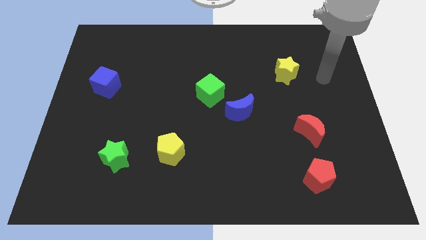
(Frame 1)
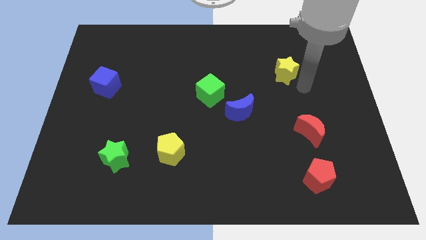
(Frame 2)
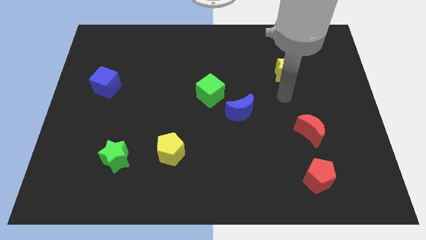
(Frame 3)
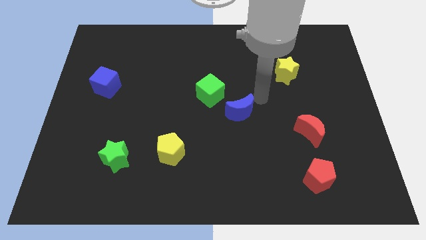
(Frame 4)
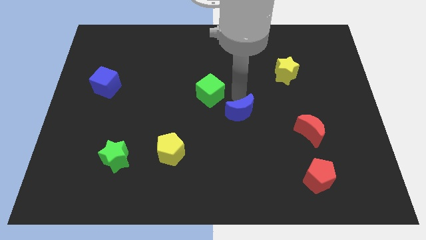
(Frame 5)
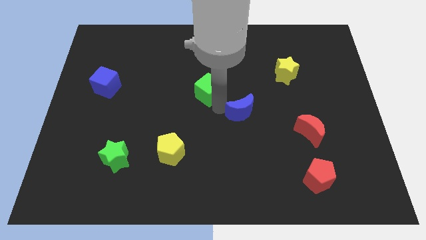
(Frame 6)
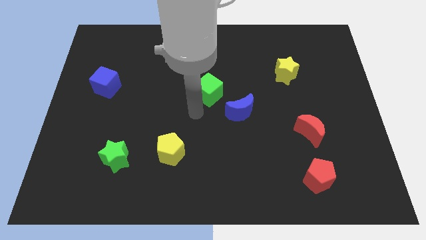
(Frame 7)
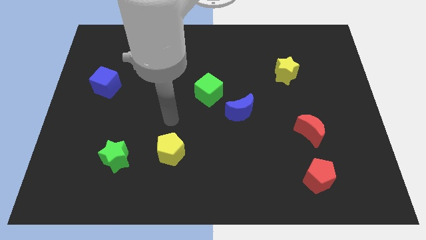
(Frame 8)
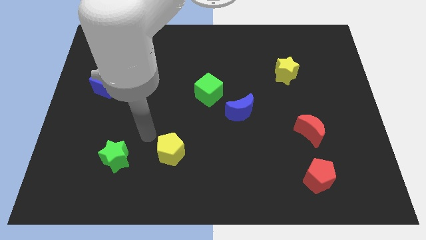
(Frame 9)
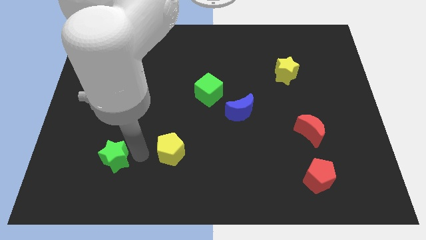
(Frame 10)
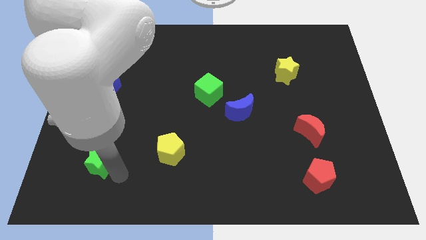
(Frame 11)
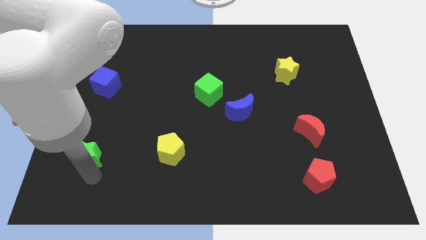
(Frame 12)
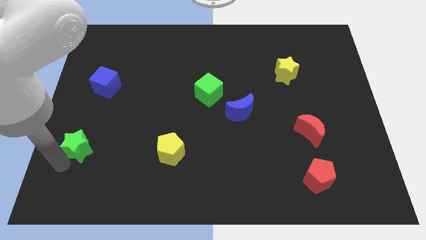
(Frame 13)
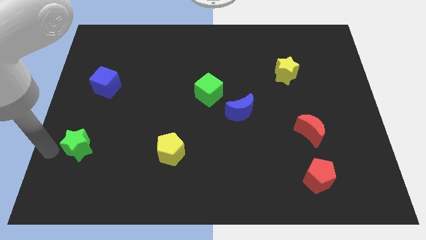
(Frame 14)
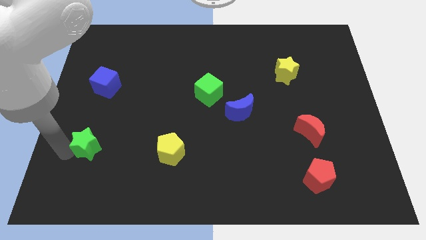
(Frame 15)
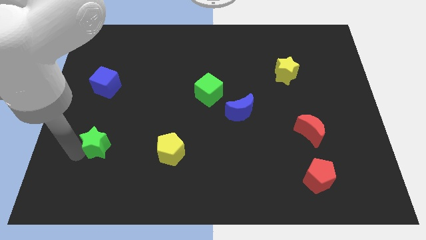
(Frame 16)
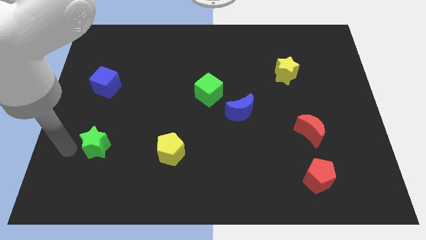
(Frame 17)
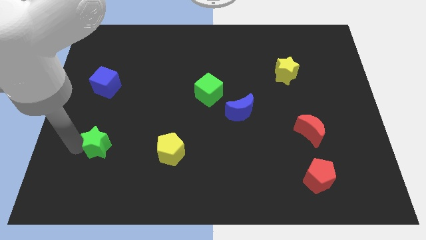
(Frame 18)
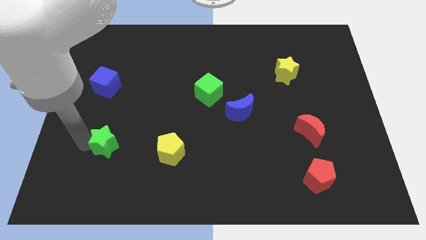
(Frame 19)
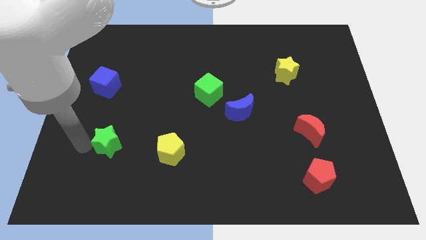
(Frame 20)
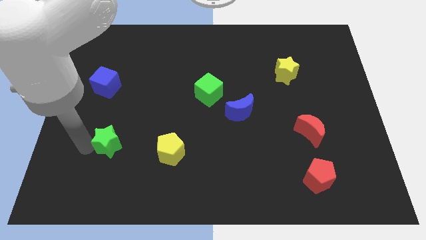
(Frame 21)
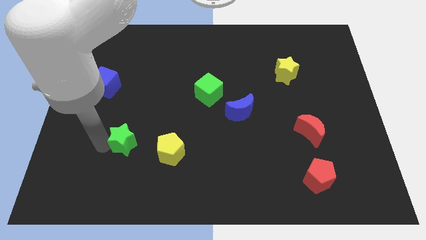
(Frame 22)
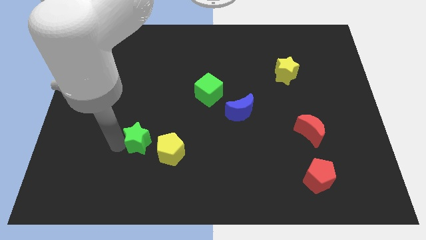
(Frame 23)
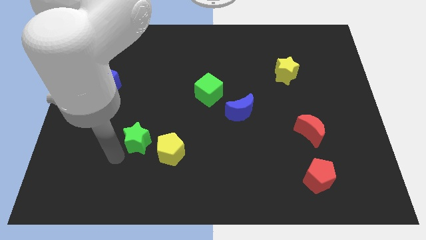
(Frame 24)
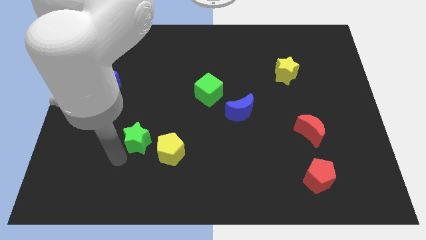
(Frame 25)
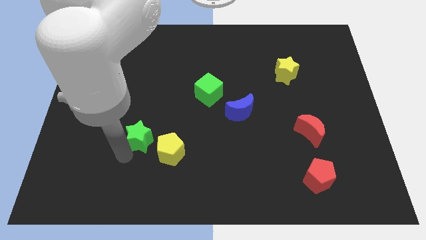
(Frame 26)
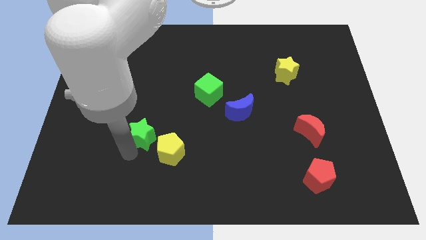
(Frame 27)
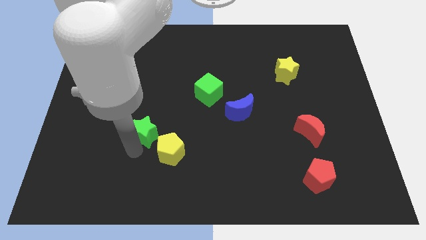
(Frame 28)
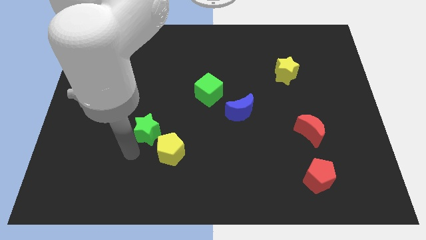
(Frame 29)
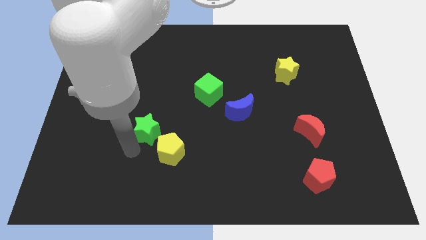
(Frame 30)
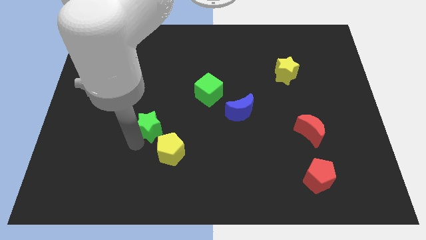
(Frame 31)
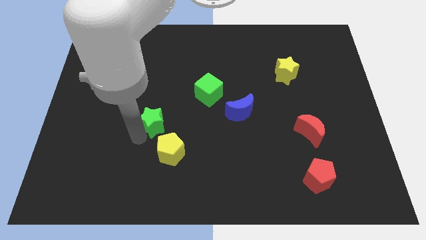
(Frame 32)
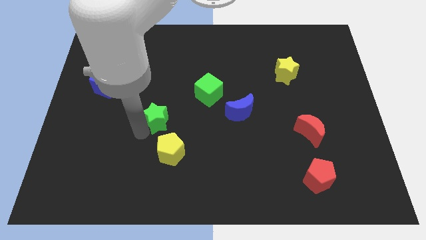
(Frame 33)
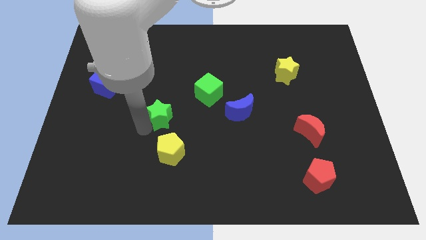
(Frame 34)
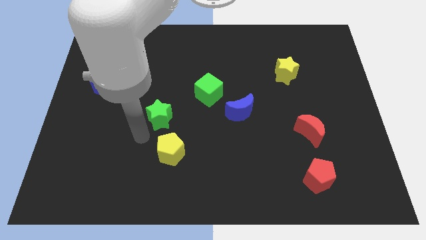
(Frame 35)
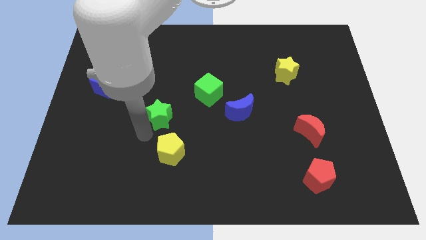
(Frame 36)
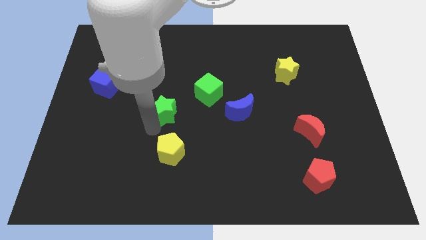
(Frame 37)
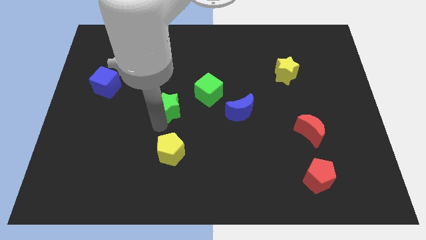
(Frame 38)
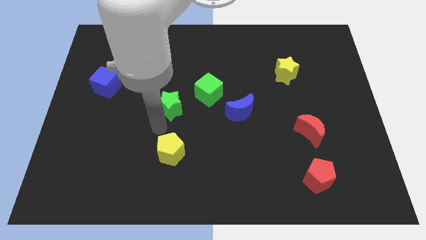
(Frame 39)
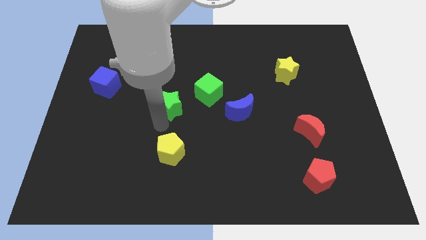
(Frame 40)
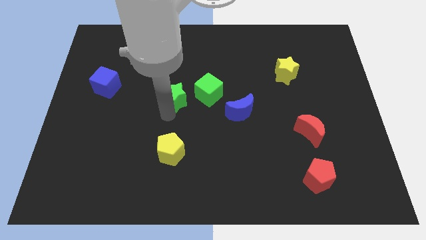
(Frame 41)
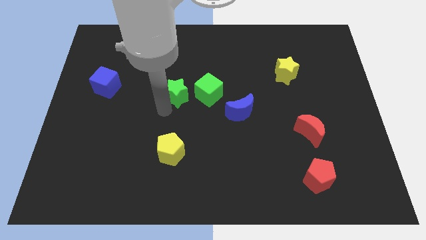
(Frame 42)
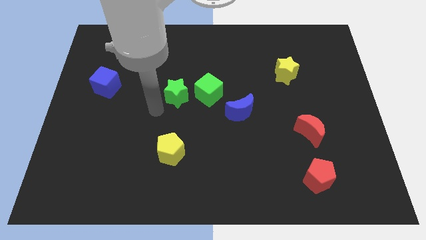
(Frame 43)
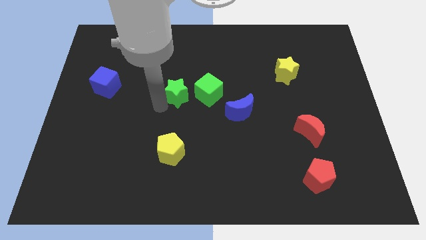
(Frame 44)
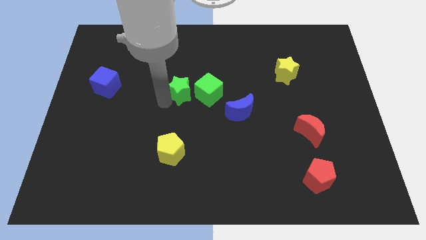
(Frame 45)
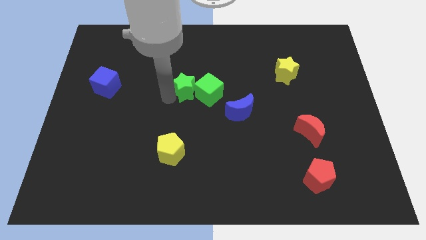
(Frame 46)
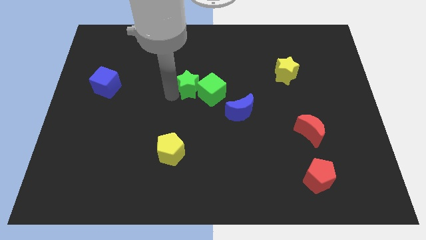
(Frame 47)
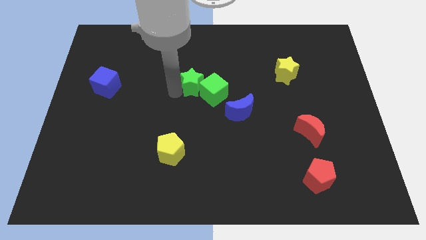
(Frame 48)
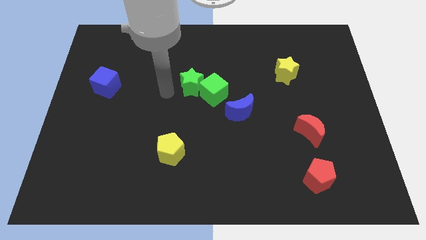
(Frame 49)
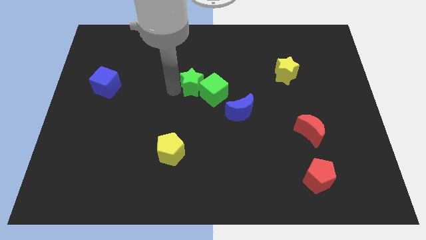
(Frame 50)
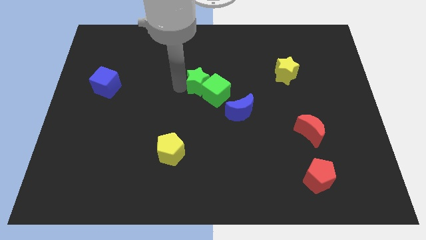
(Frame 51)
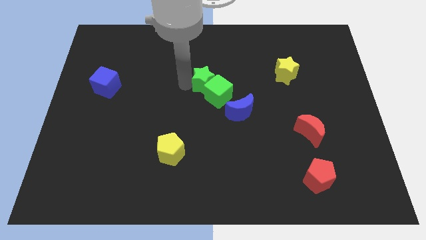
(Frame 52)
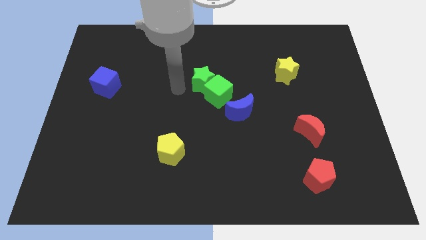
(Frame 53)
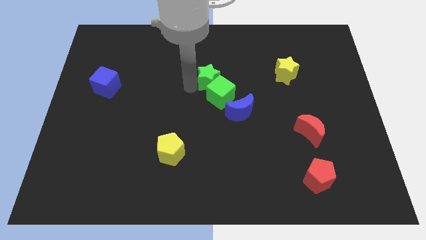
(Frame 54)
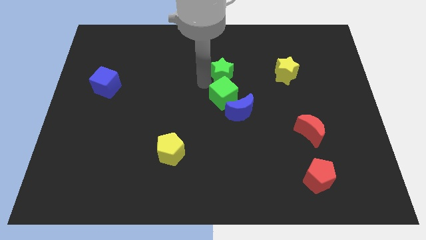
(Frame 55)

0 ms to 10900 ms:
push the green star left of the yellow star

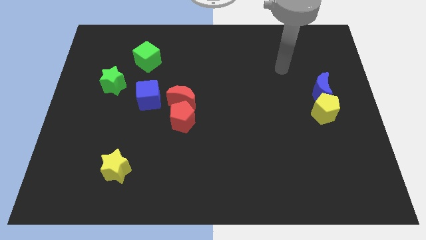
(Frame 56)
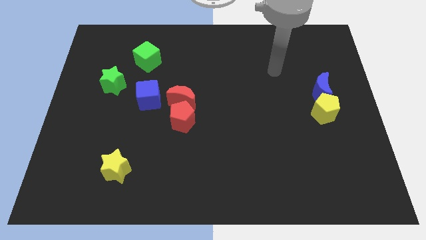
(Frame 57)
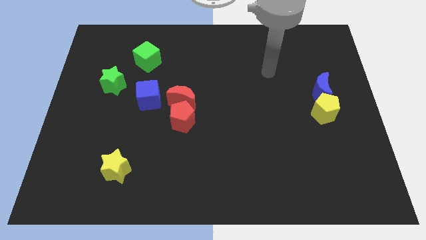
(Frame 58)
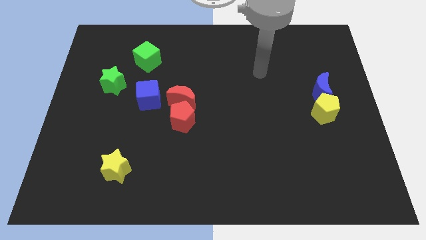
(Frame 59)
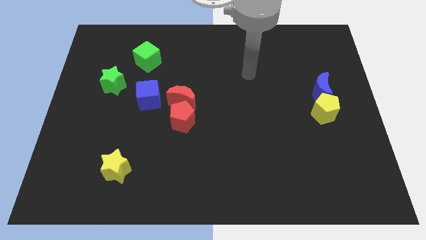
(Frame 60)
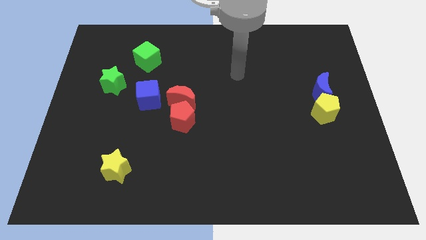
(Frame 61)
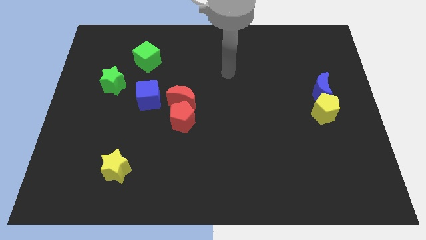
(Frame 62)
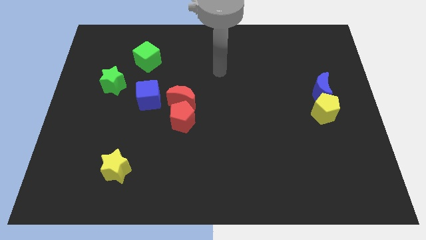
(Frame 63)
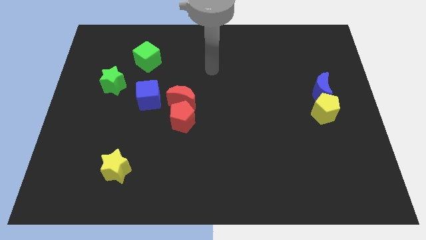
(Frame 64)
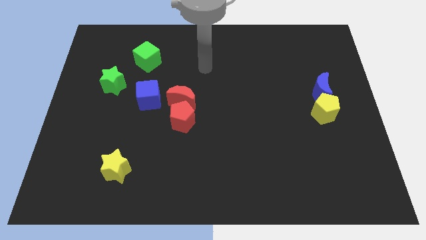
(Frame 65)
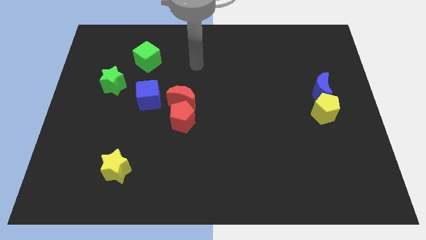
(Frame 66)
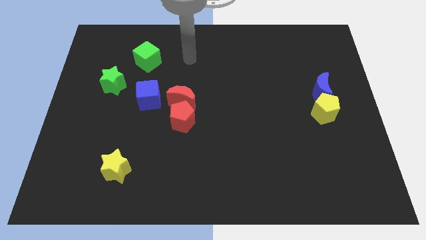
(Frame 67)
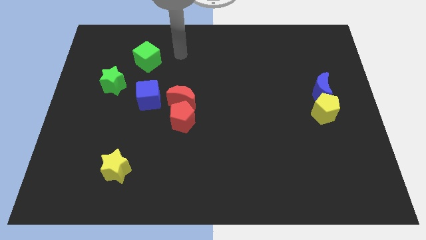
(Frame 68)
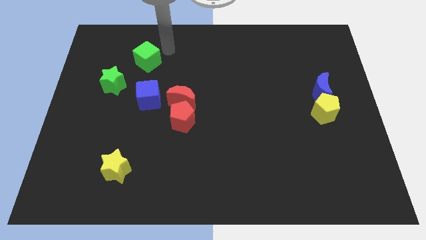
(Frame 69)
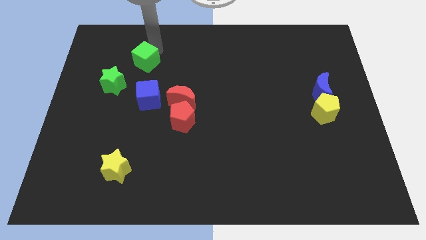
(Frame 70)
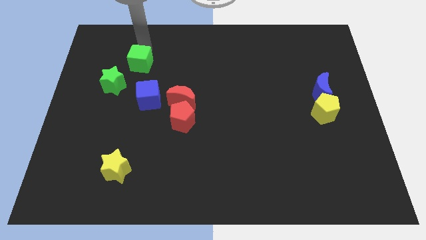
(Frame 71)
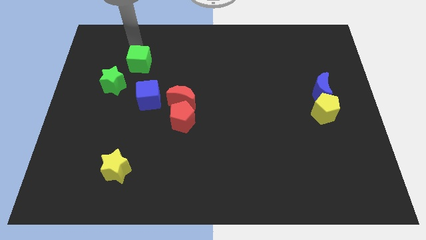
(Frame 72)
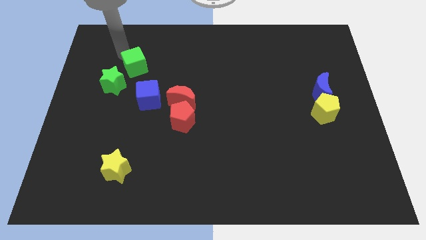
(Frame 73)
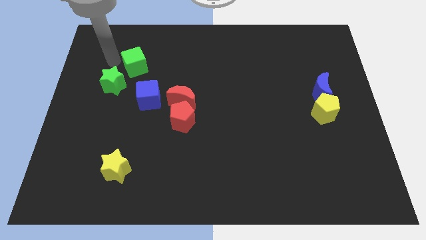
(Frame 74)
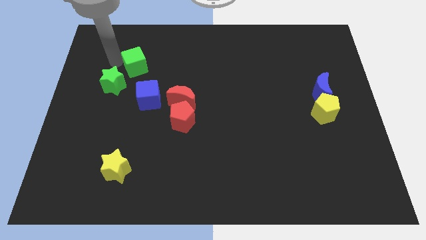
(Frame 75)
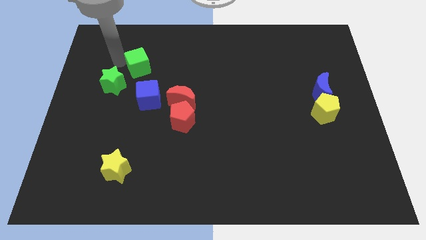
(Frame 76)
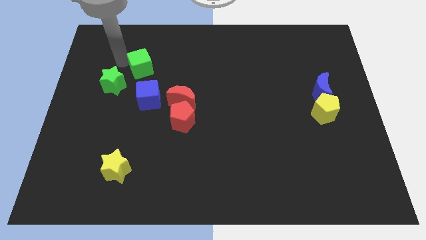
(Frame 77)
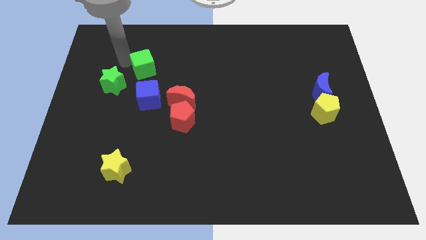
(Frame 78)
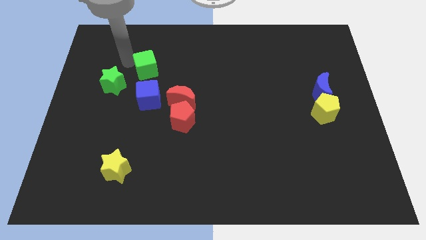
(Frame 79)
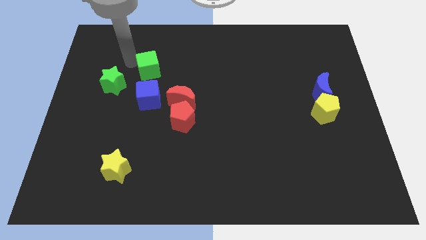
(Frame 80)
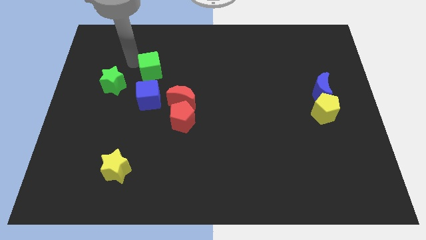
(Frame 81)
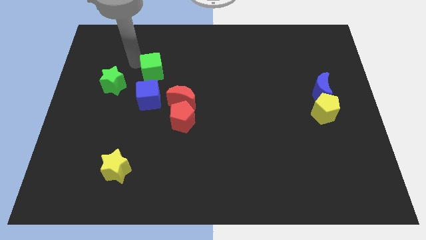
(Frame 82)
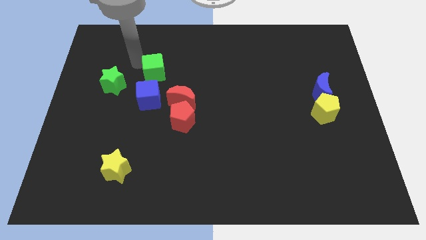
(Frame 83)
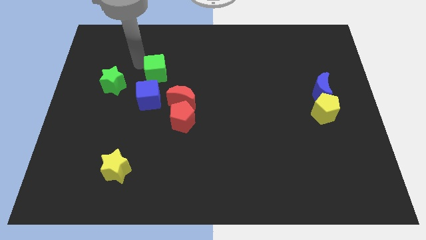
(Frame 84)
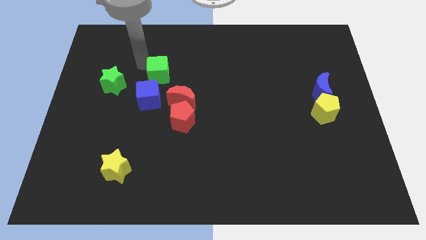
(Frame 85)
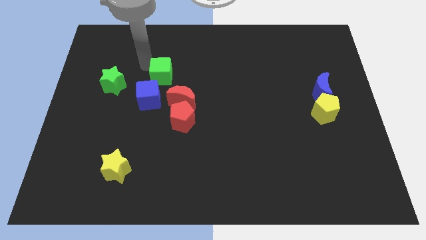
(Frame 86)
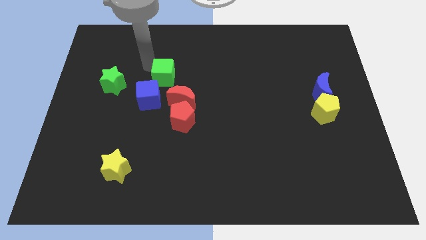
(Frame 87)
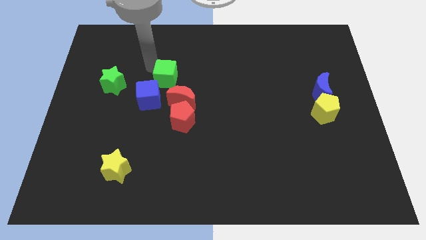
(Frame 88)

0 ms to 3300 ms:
slide the green cube to the top of the red pentagon
